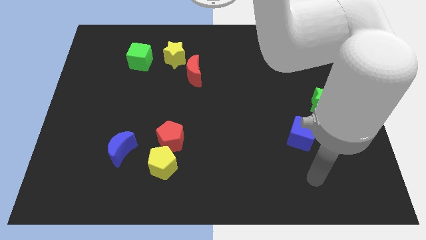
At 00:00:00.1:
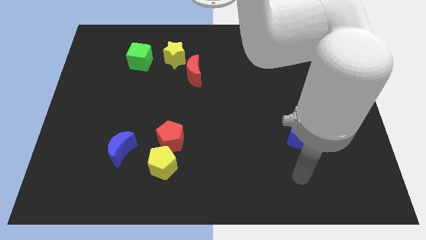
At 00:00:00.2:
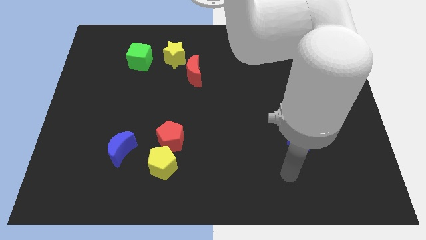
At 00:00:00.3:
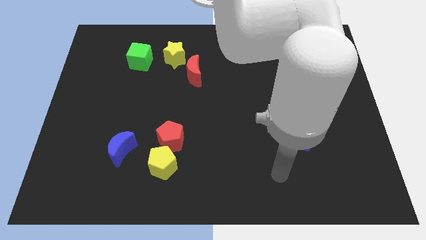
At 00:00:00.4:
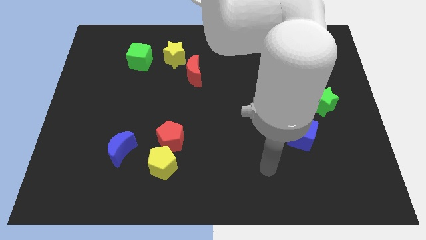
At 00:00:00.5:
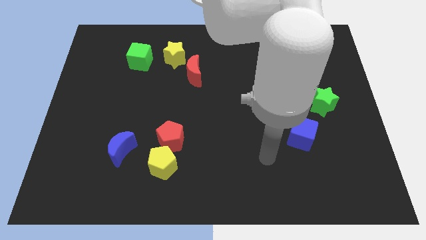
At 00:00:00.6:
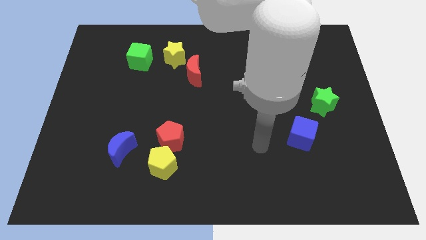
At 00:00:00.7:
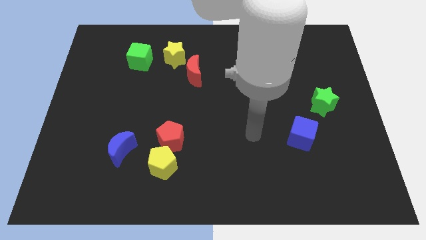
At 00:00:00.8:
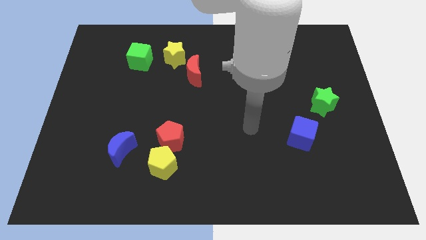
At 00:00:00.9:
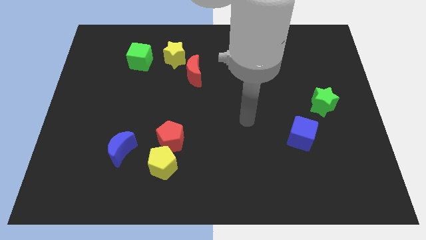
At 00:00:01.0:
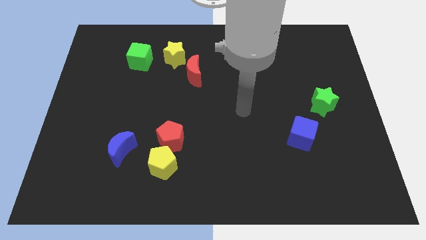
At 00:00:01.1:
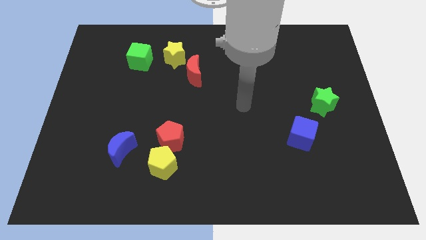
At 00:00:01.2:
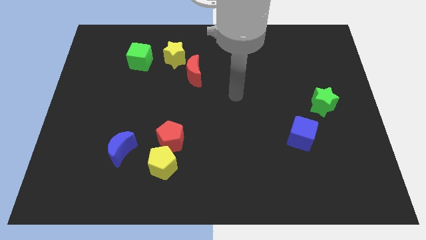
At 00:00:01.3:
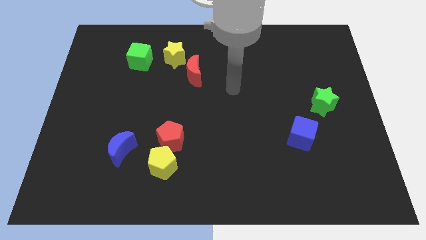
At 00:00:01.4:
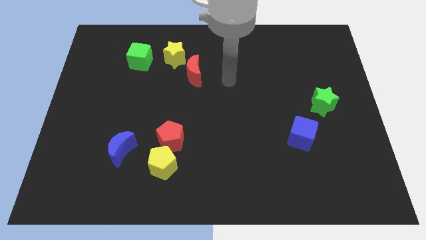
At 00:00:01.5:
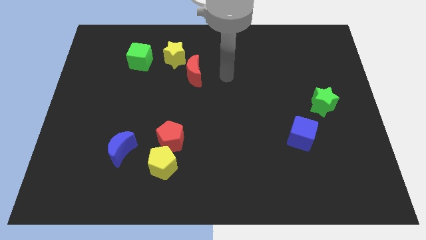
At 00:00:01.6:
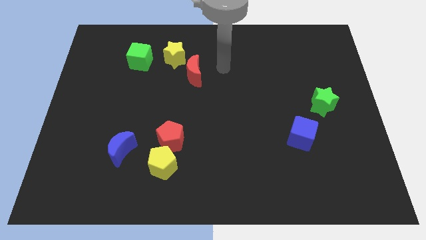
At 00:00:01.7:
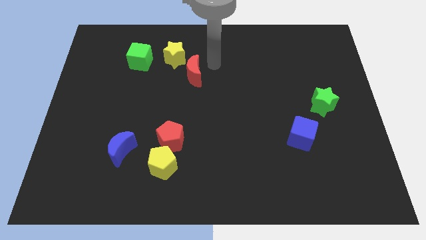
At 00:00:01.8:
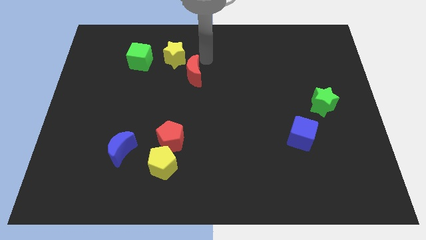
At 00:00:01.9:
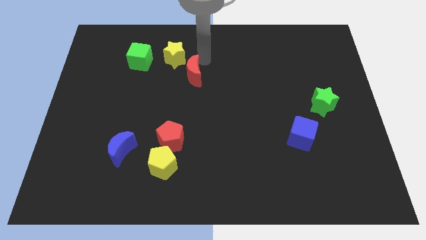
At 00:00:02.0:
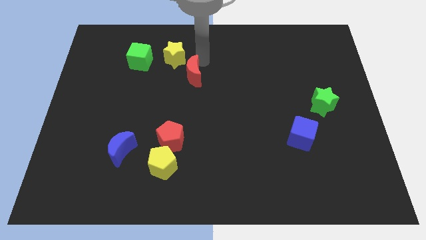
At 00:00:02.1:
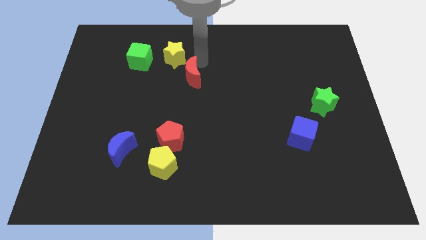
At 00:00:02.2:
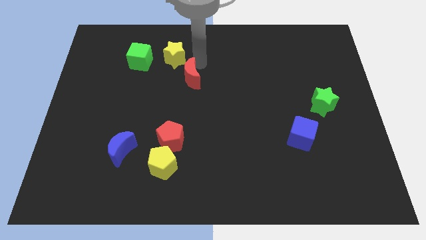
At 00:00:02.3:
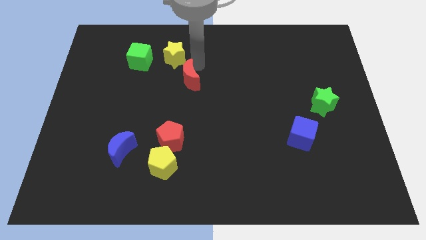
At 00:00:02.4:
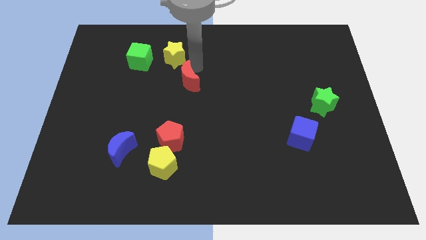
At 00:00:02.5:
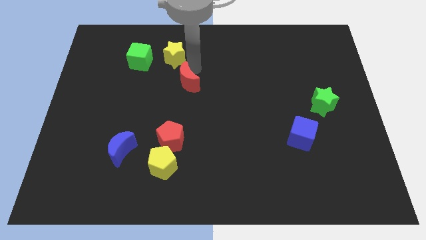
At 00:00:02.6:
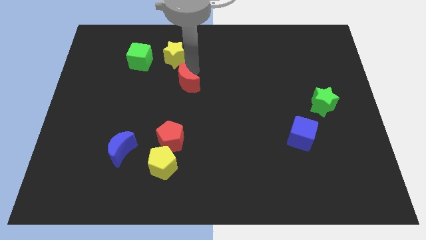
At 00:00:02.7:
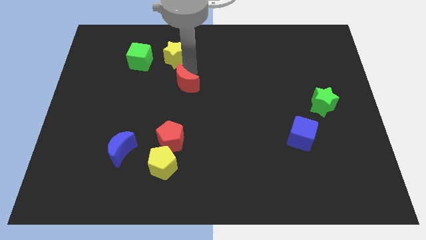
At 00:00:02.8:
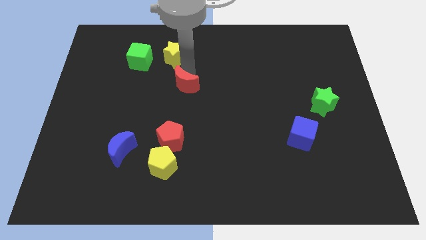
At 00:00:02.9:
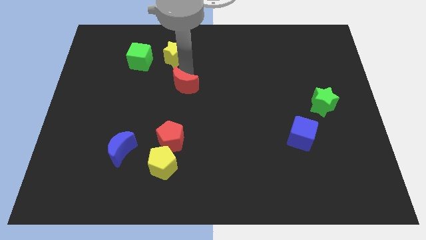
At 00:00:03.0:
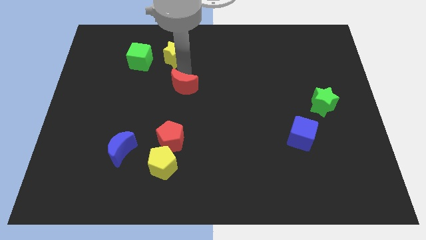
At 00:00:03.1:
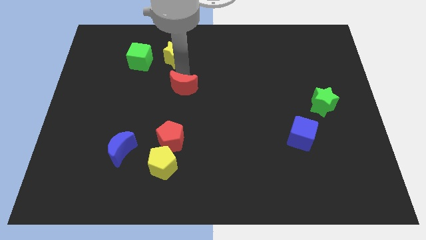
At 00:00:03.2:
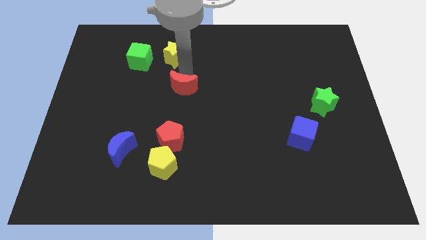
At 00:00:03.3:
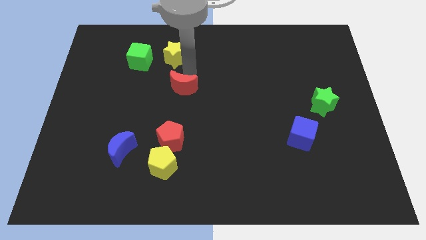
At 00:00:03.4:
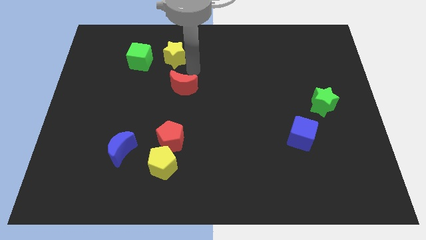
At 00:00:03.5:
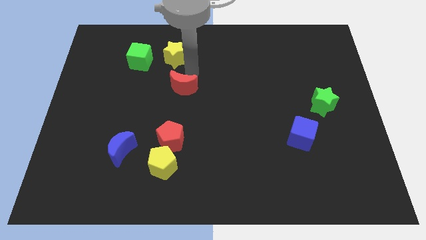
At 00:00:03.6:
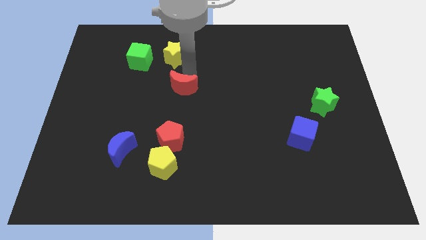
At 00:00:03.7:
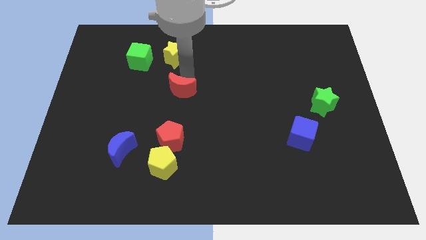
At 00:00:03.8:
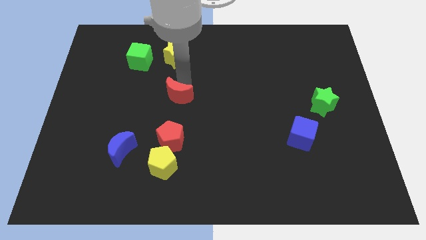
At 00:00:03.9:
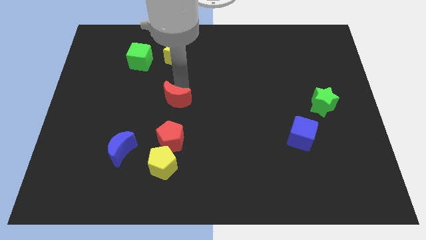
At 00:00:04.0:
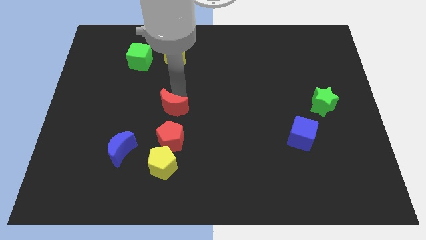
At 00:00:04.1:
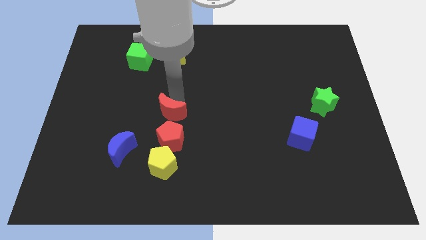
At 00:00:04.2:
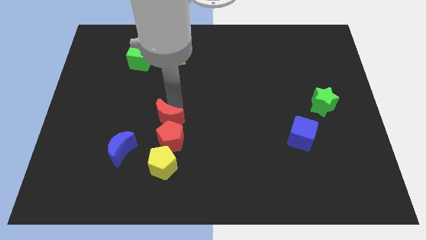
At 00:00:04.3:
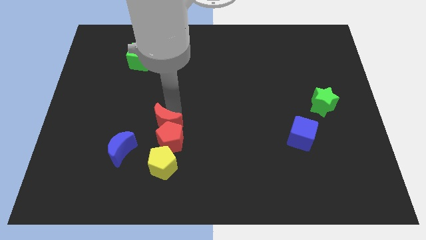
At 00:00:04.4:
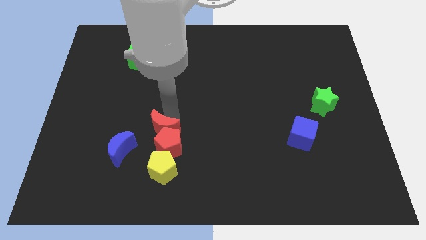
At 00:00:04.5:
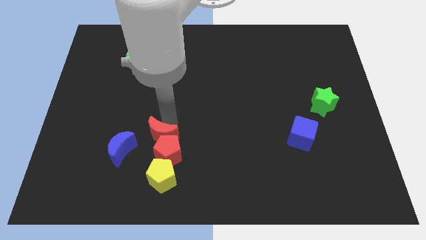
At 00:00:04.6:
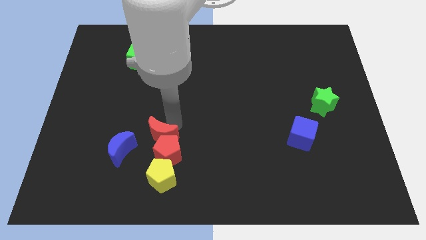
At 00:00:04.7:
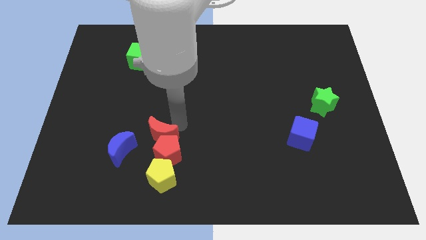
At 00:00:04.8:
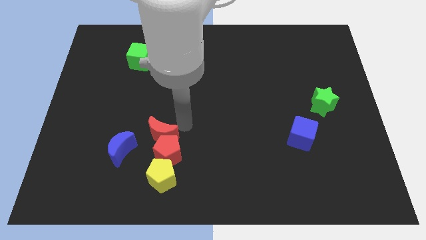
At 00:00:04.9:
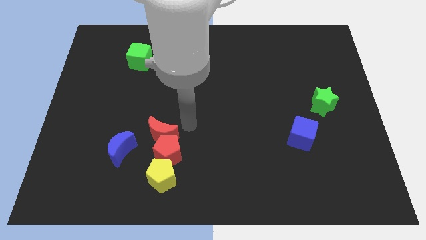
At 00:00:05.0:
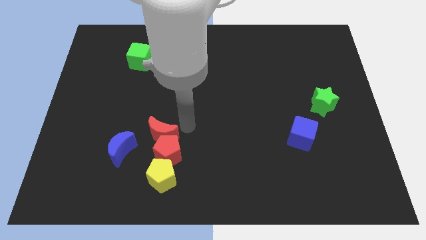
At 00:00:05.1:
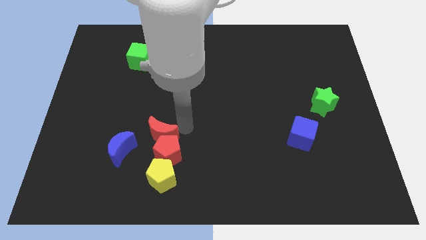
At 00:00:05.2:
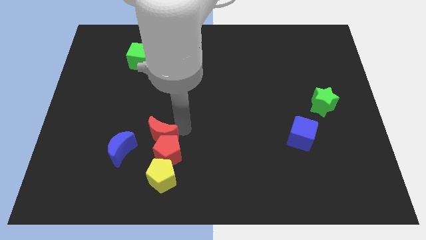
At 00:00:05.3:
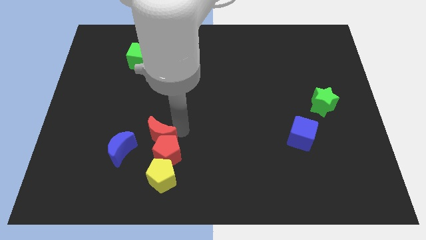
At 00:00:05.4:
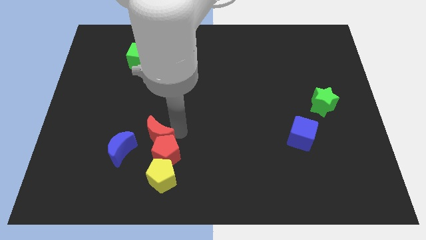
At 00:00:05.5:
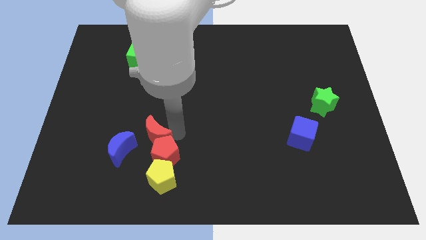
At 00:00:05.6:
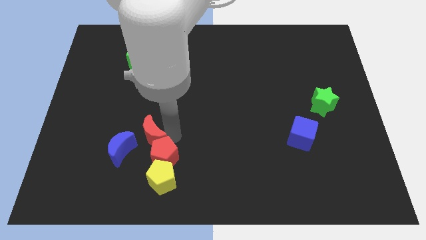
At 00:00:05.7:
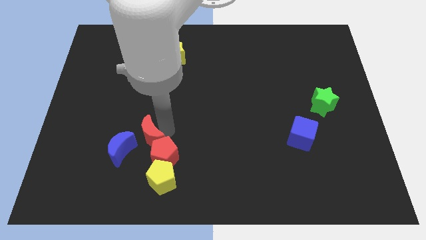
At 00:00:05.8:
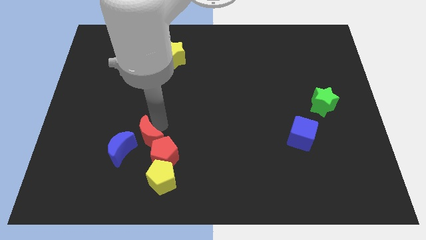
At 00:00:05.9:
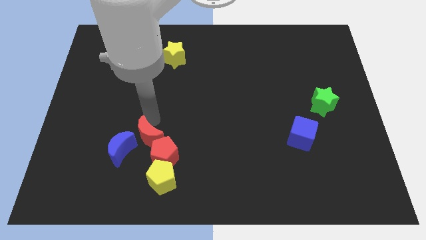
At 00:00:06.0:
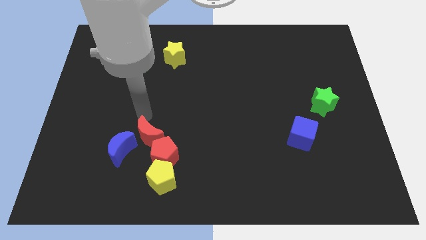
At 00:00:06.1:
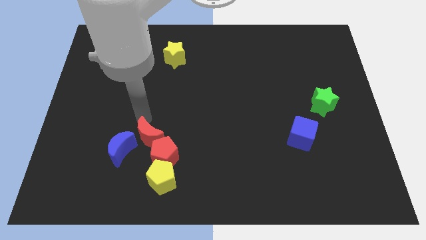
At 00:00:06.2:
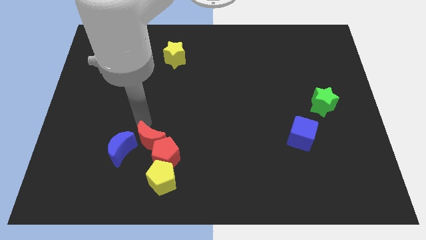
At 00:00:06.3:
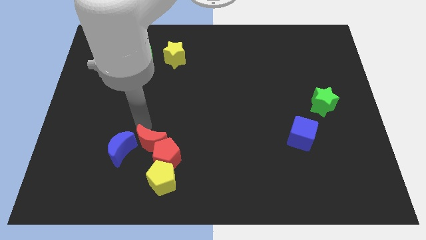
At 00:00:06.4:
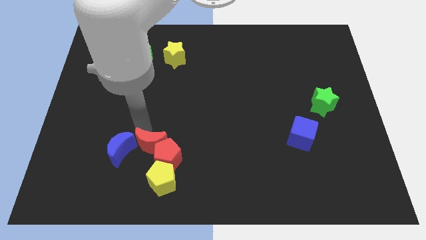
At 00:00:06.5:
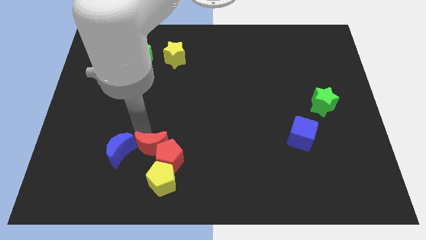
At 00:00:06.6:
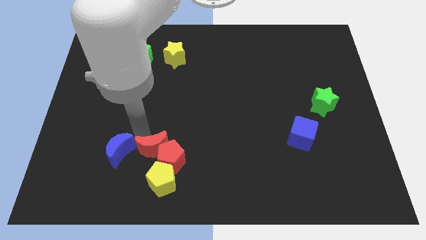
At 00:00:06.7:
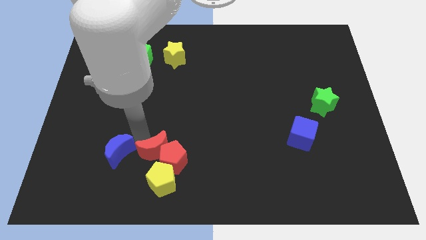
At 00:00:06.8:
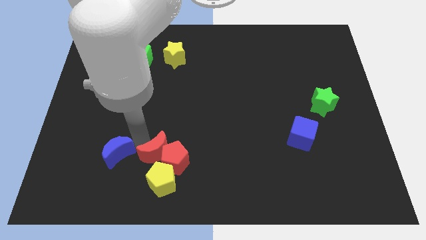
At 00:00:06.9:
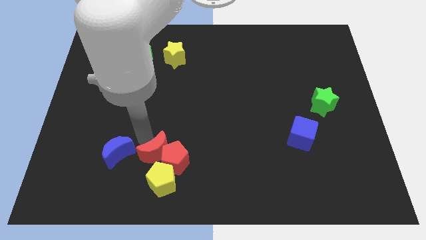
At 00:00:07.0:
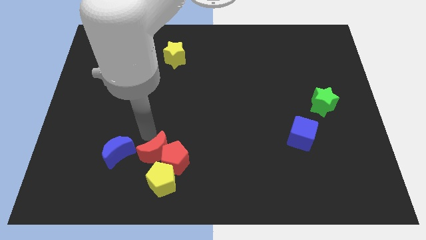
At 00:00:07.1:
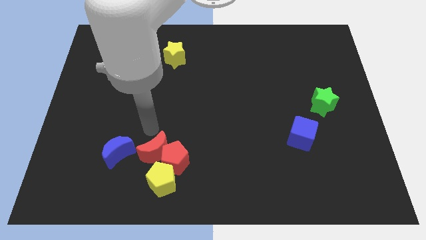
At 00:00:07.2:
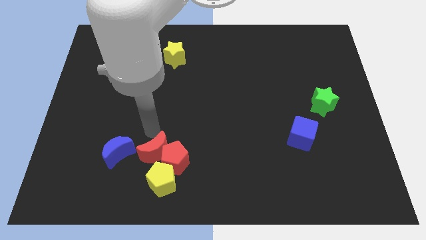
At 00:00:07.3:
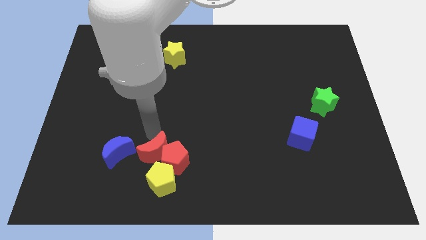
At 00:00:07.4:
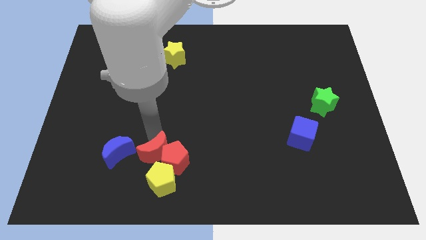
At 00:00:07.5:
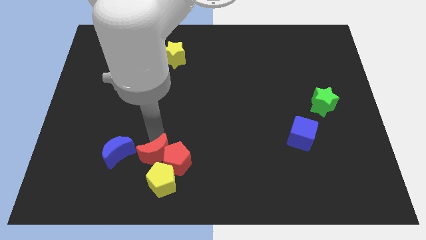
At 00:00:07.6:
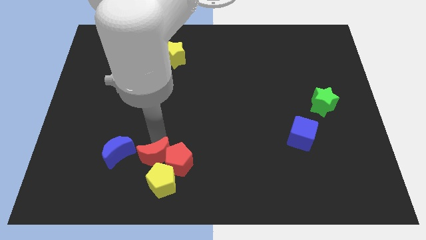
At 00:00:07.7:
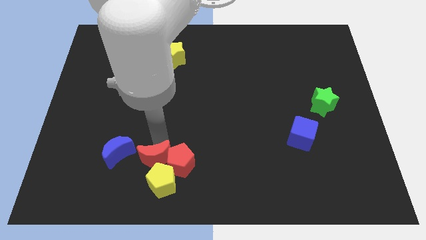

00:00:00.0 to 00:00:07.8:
move the red moon close to the yellow pentagon
